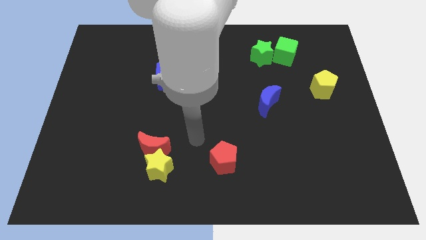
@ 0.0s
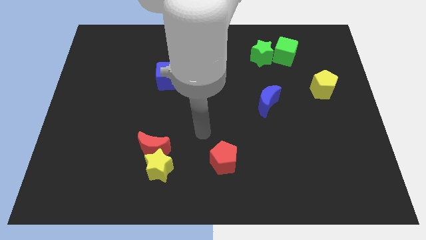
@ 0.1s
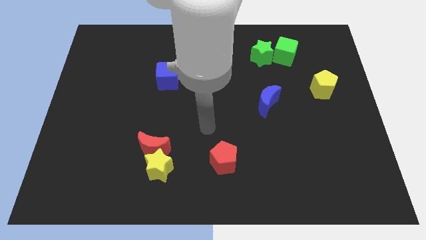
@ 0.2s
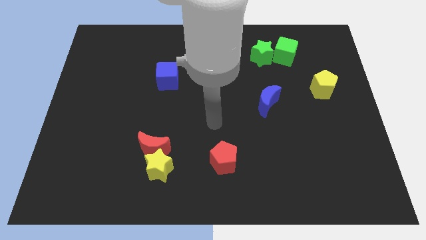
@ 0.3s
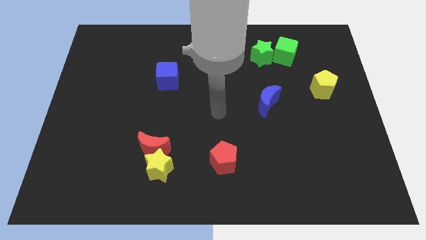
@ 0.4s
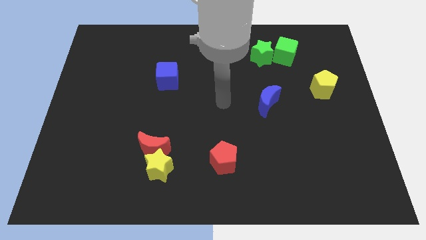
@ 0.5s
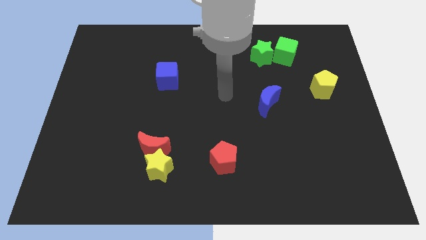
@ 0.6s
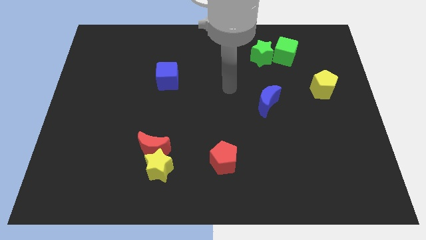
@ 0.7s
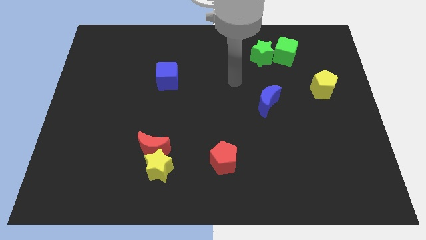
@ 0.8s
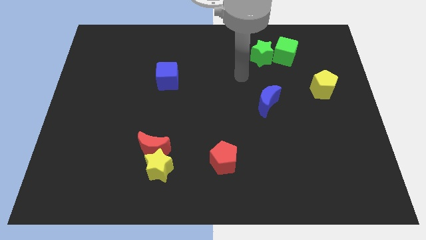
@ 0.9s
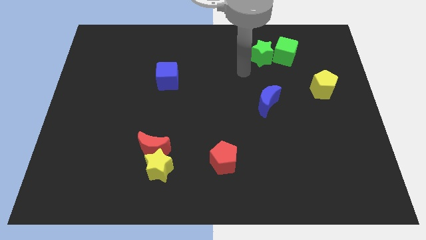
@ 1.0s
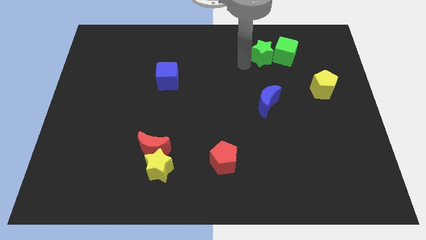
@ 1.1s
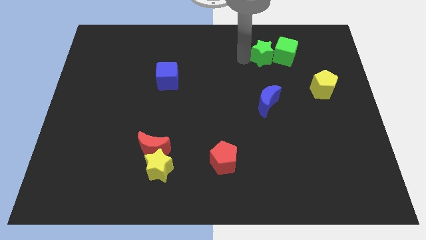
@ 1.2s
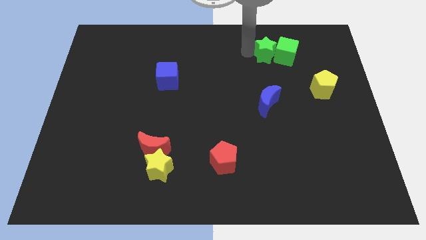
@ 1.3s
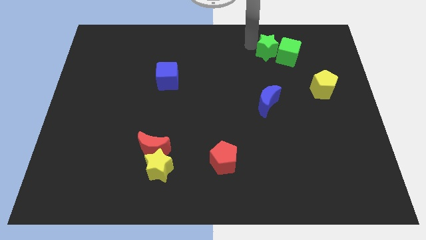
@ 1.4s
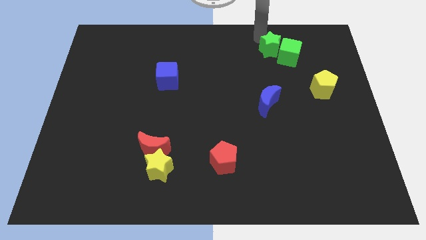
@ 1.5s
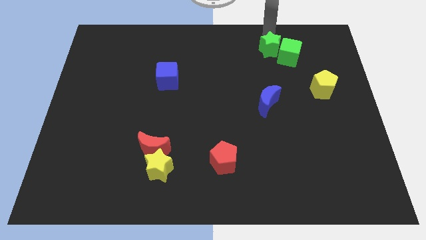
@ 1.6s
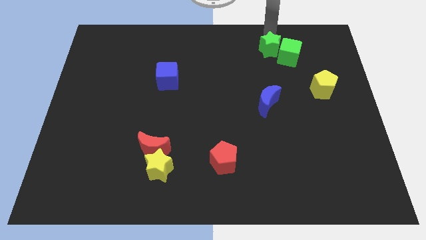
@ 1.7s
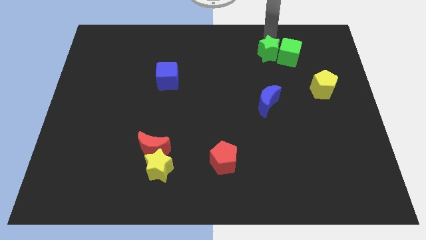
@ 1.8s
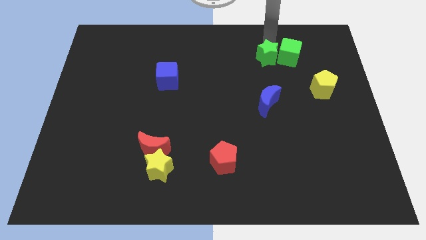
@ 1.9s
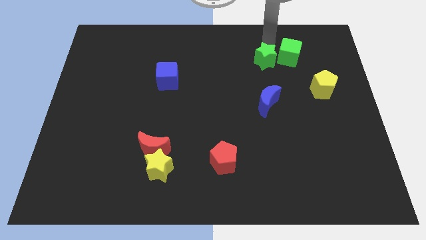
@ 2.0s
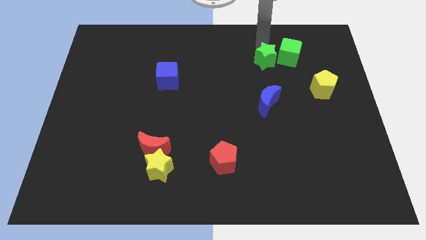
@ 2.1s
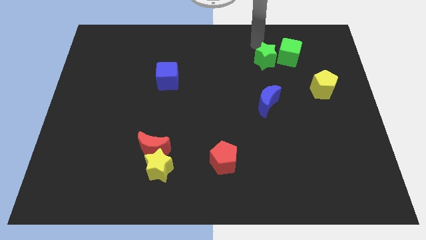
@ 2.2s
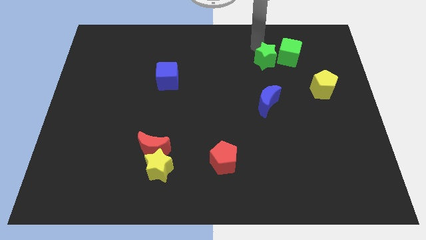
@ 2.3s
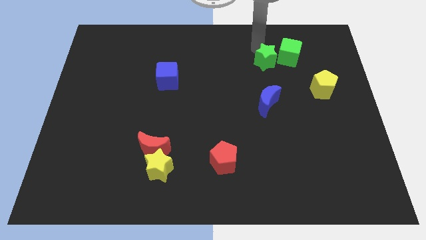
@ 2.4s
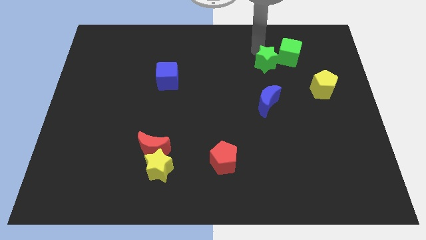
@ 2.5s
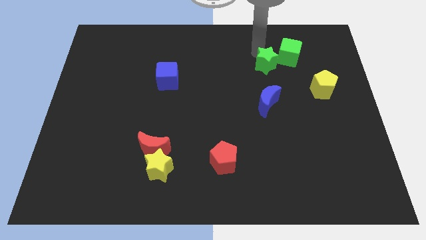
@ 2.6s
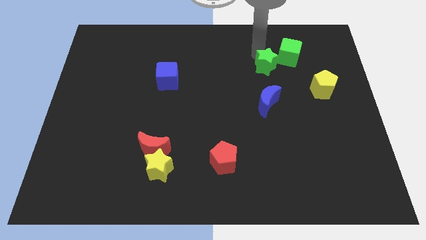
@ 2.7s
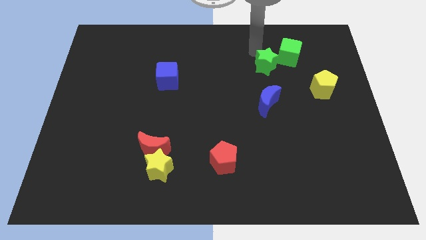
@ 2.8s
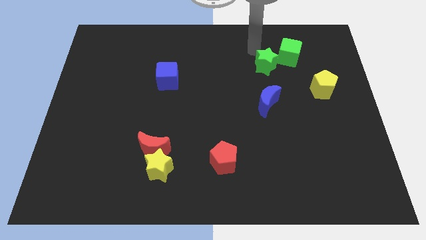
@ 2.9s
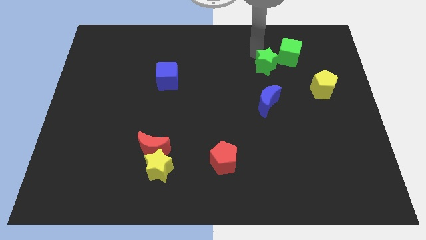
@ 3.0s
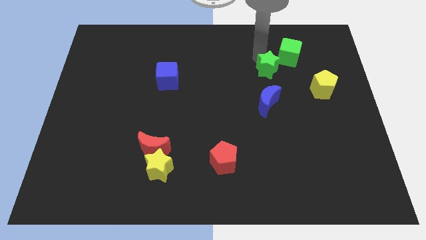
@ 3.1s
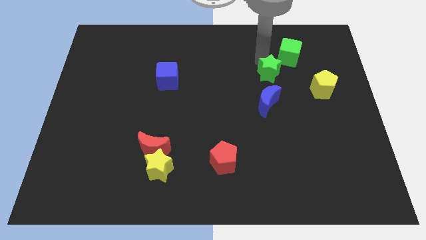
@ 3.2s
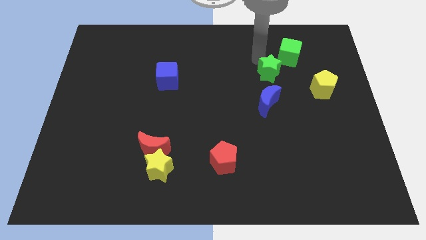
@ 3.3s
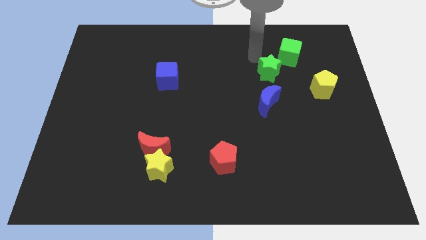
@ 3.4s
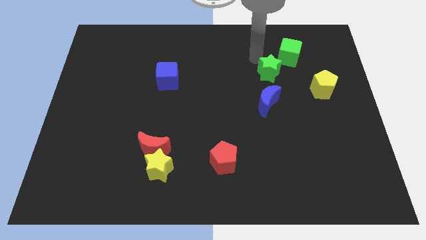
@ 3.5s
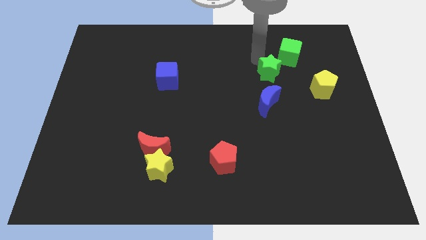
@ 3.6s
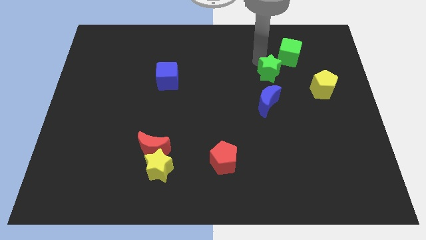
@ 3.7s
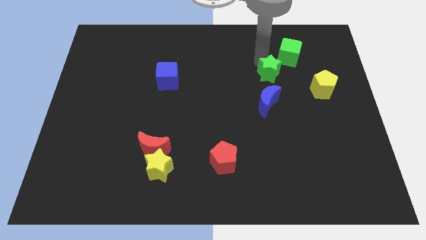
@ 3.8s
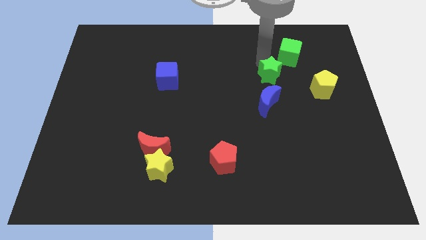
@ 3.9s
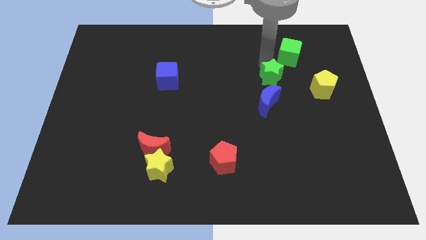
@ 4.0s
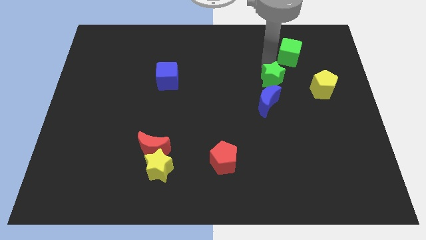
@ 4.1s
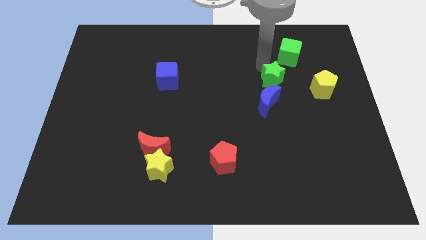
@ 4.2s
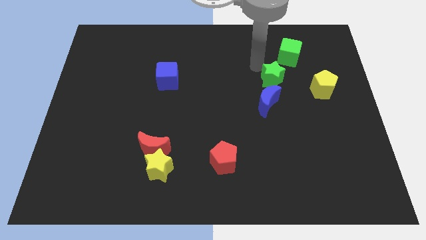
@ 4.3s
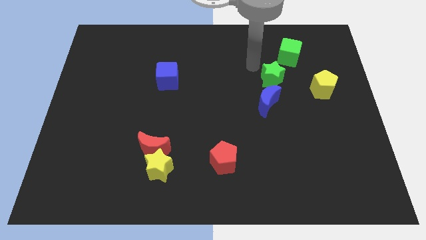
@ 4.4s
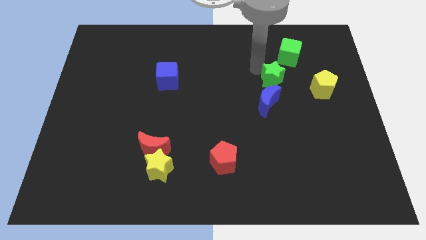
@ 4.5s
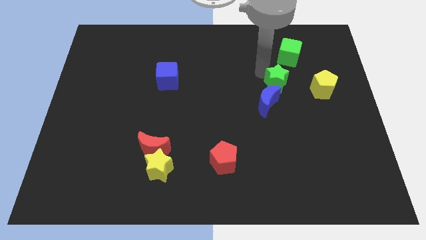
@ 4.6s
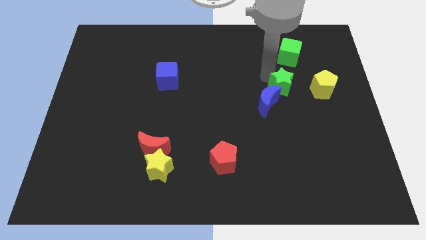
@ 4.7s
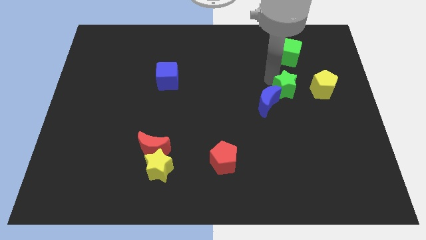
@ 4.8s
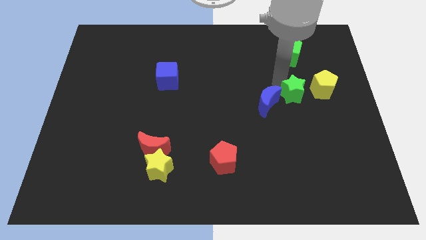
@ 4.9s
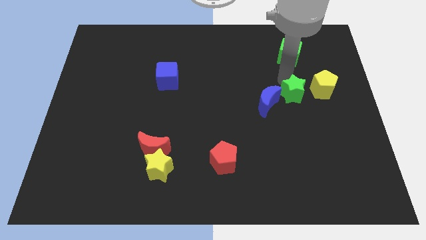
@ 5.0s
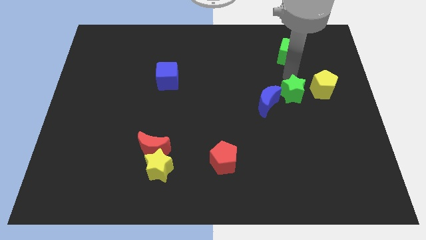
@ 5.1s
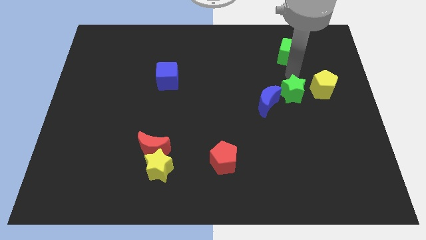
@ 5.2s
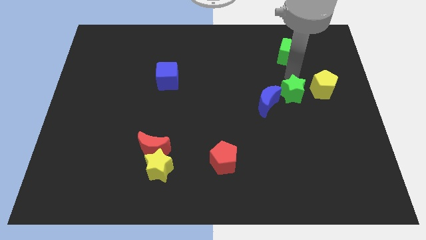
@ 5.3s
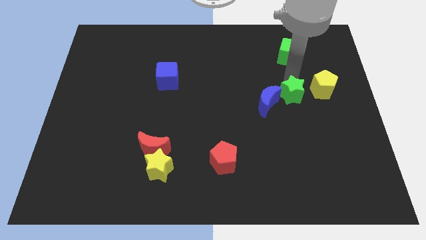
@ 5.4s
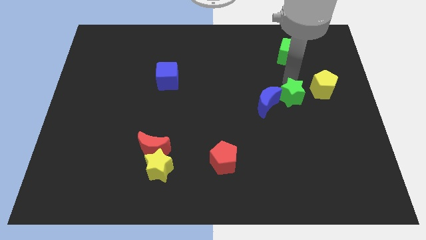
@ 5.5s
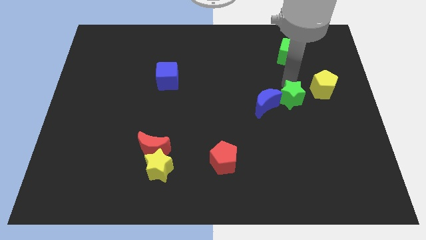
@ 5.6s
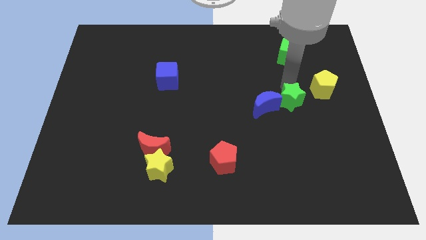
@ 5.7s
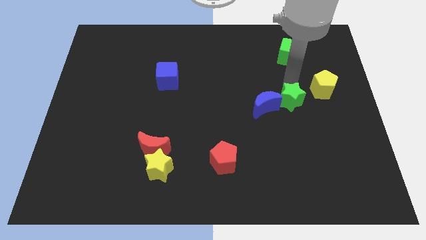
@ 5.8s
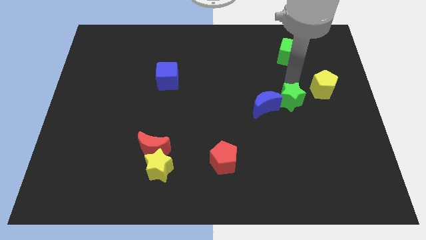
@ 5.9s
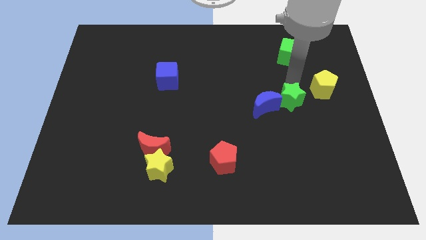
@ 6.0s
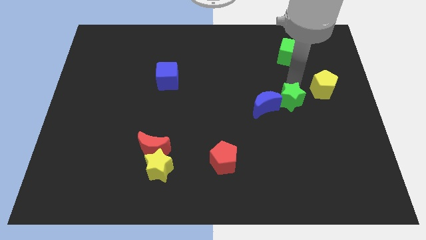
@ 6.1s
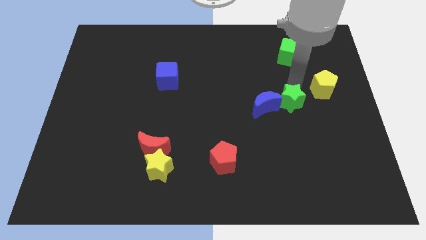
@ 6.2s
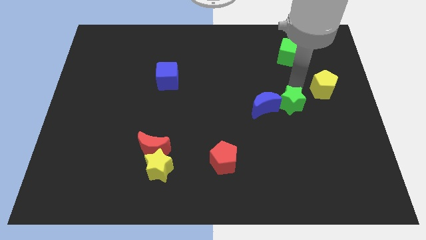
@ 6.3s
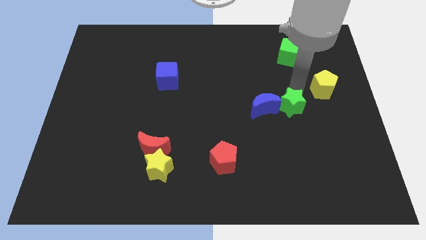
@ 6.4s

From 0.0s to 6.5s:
put the green star to the bottom right of the blue moon

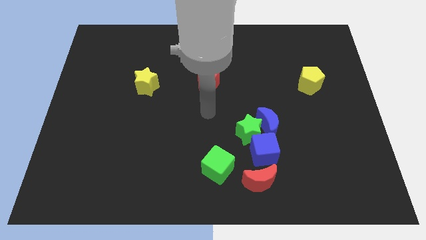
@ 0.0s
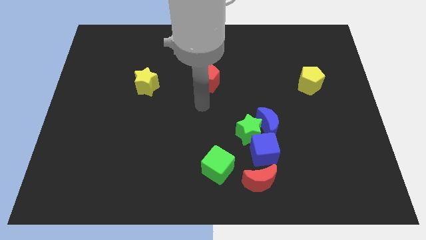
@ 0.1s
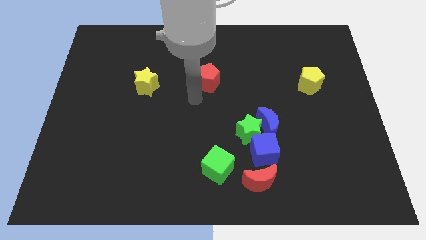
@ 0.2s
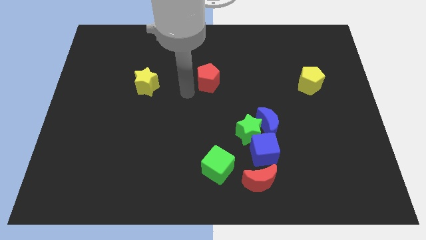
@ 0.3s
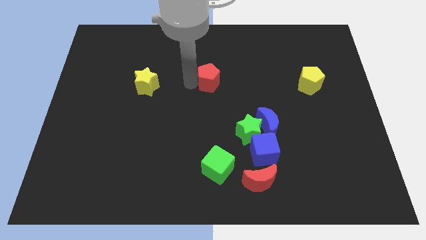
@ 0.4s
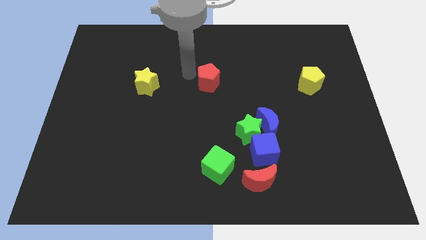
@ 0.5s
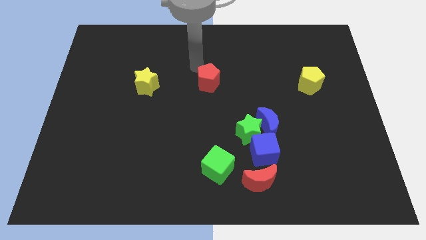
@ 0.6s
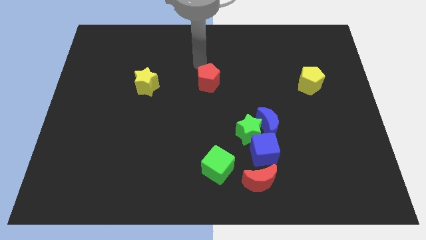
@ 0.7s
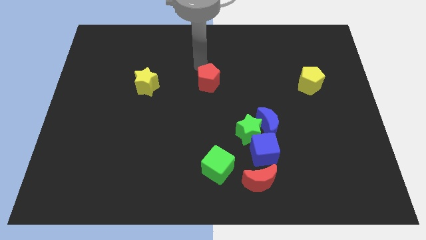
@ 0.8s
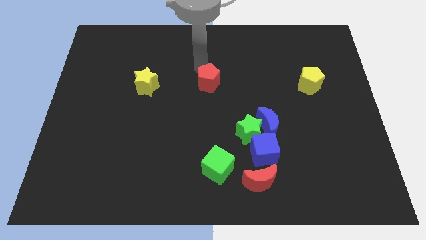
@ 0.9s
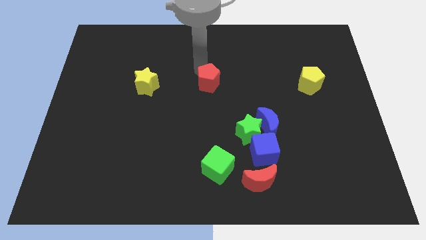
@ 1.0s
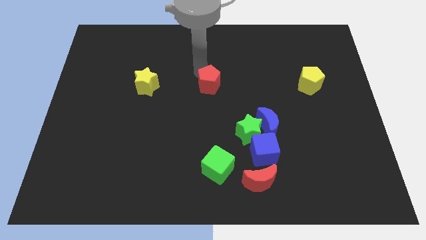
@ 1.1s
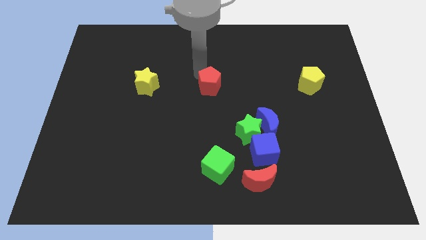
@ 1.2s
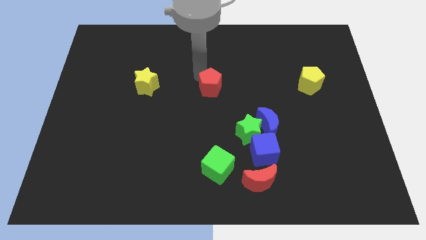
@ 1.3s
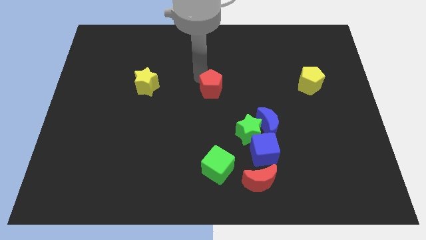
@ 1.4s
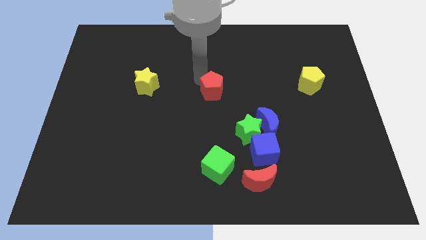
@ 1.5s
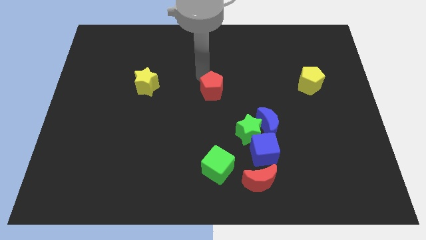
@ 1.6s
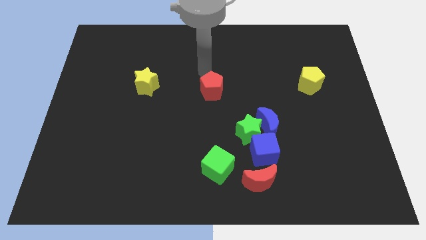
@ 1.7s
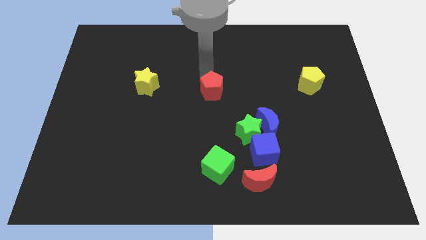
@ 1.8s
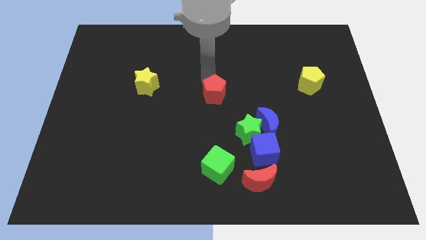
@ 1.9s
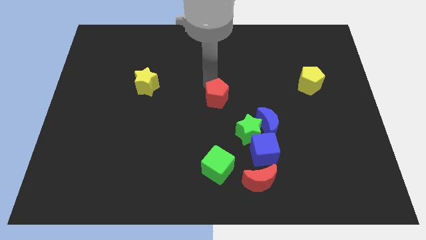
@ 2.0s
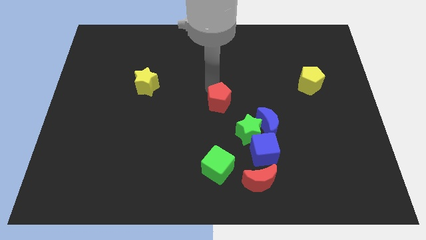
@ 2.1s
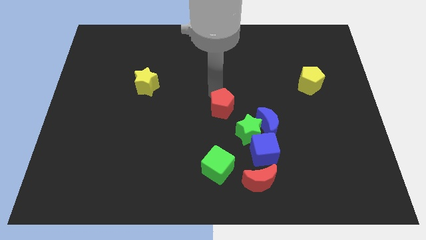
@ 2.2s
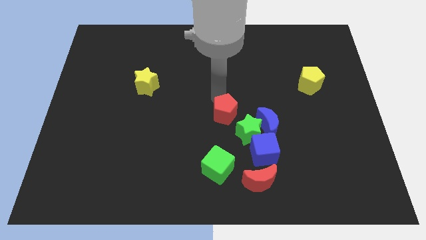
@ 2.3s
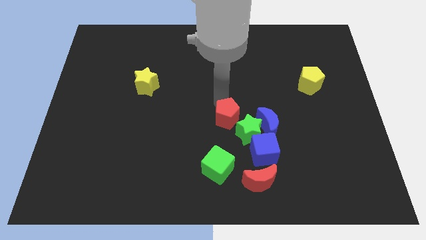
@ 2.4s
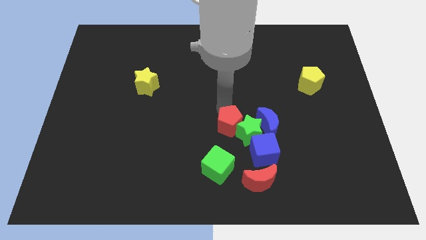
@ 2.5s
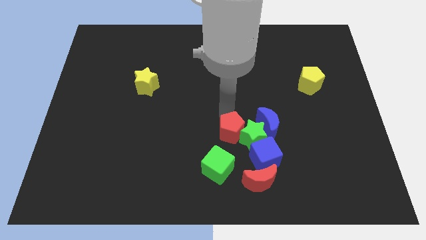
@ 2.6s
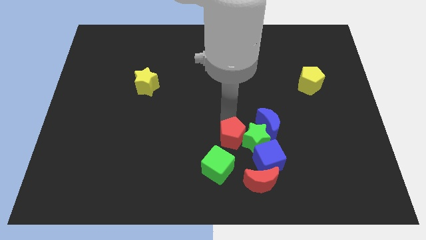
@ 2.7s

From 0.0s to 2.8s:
push the red pentagon to the bottom left side of the blue moon
